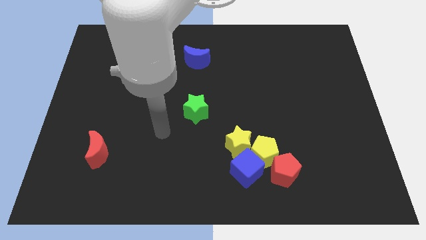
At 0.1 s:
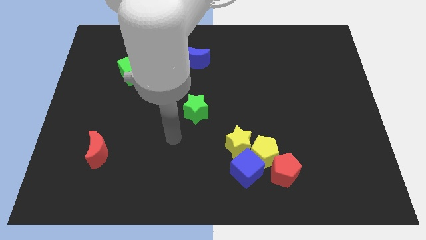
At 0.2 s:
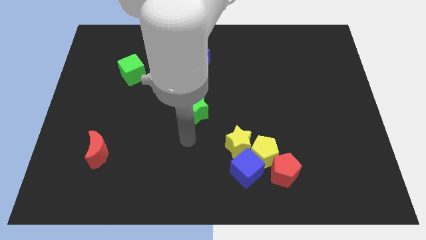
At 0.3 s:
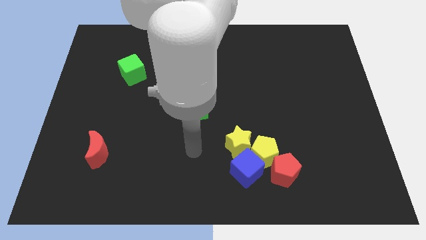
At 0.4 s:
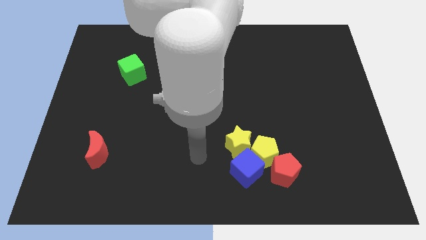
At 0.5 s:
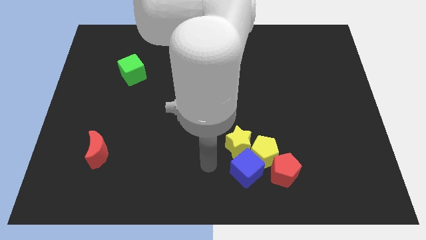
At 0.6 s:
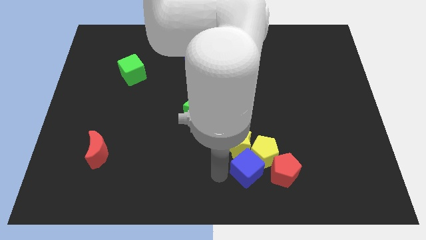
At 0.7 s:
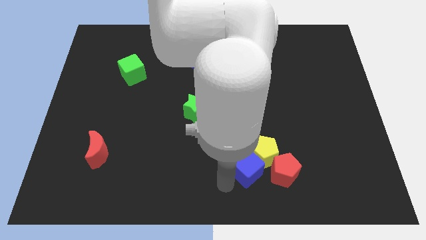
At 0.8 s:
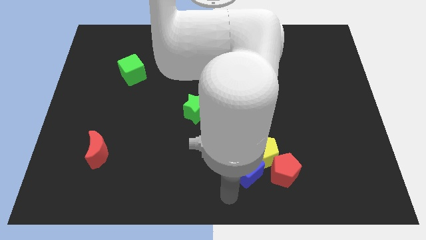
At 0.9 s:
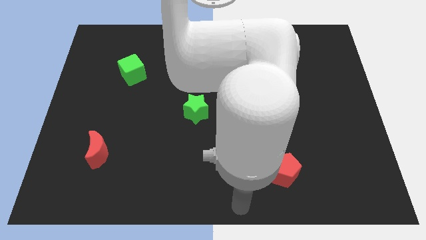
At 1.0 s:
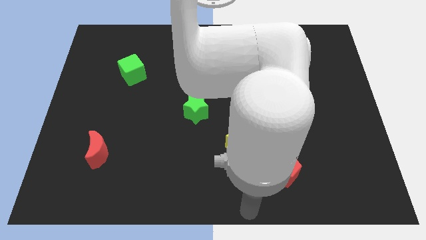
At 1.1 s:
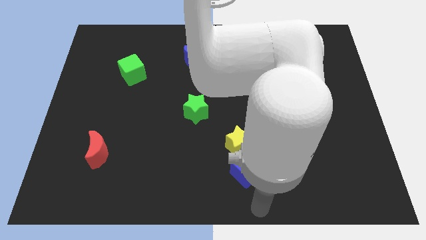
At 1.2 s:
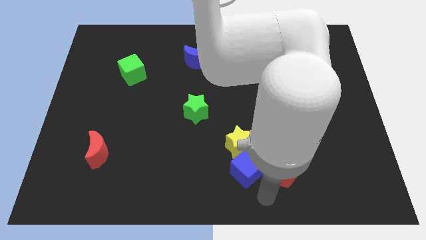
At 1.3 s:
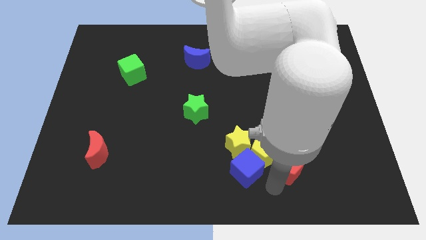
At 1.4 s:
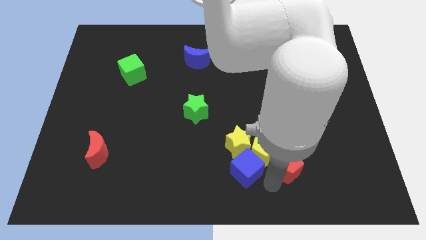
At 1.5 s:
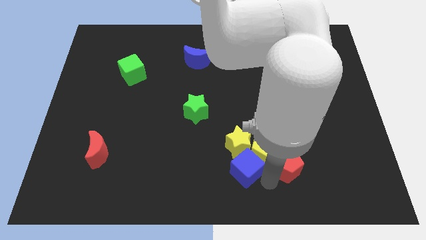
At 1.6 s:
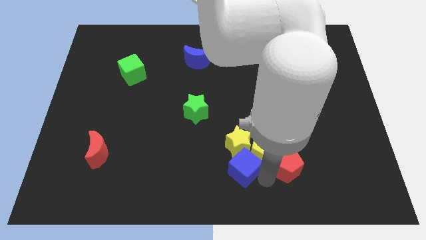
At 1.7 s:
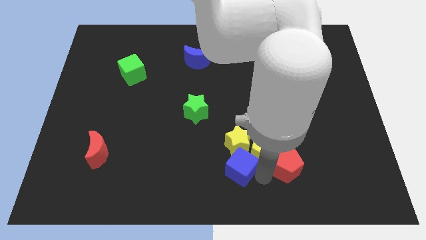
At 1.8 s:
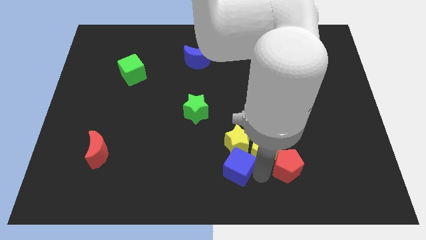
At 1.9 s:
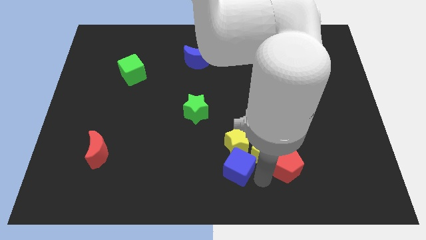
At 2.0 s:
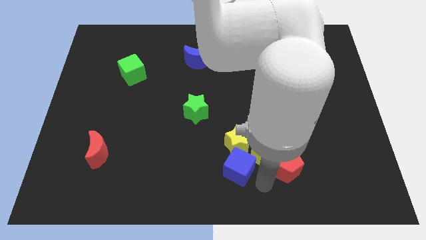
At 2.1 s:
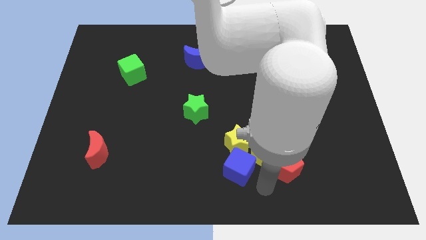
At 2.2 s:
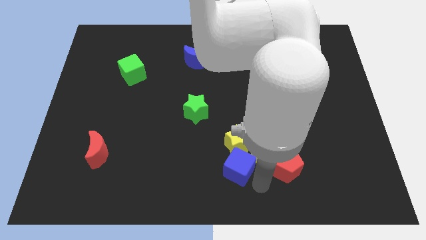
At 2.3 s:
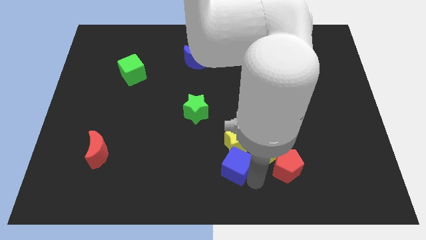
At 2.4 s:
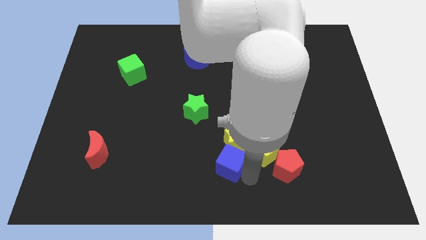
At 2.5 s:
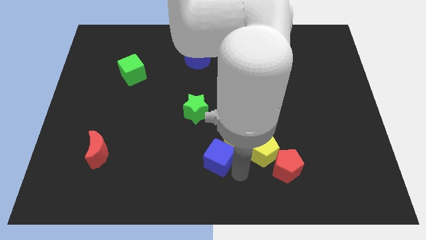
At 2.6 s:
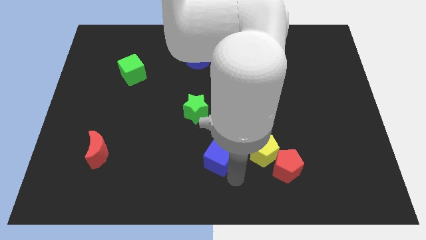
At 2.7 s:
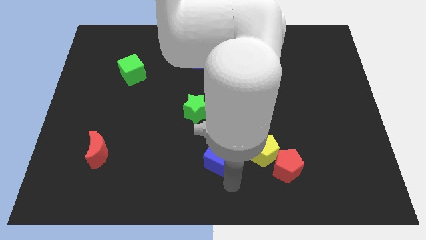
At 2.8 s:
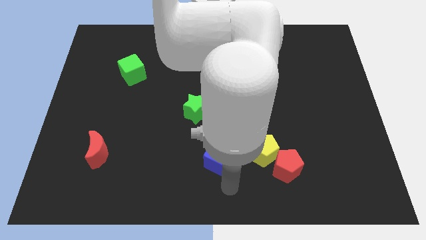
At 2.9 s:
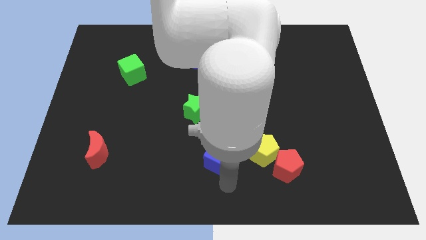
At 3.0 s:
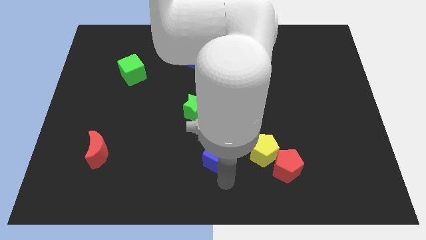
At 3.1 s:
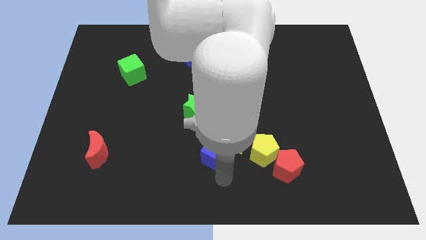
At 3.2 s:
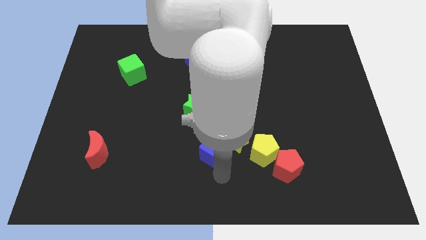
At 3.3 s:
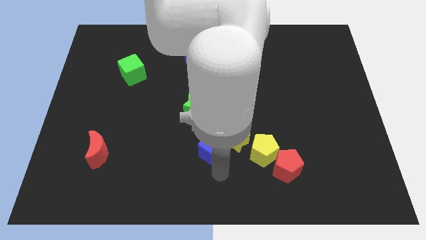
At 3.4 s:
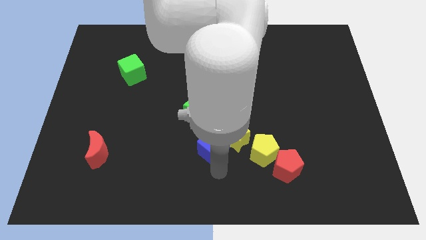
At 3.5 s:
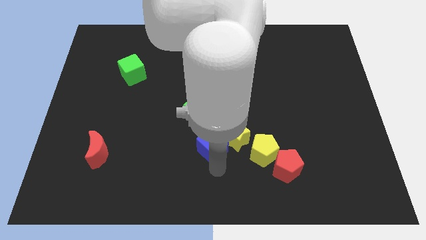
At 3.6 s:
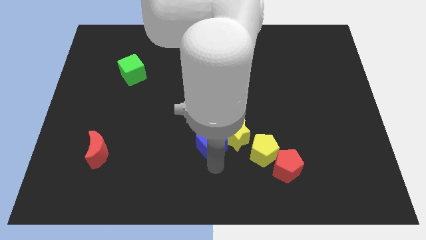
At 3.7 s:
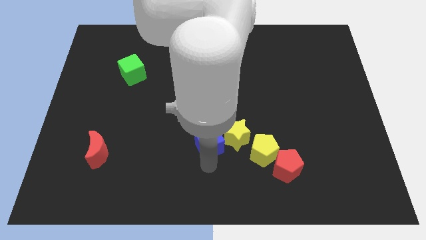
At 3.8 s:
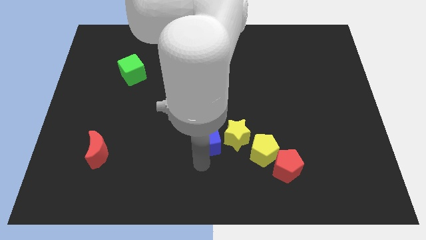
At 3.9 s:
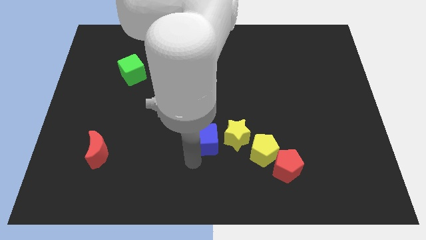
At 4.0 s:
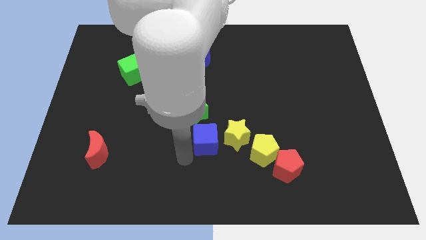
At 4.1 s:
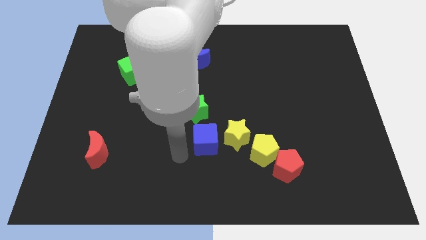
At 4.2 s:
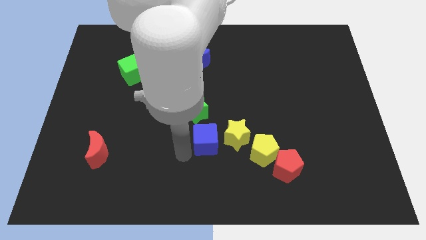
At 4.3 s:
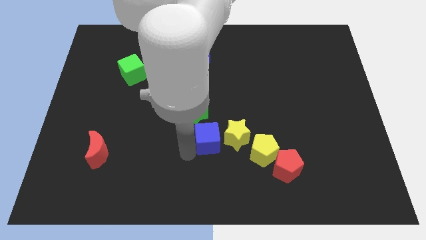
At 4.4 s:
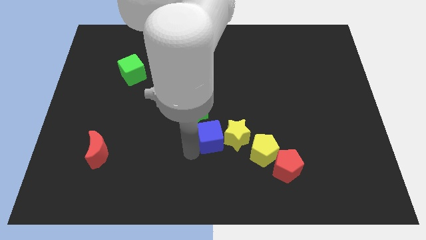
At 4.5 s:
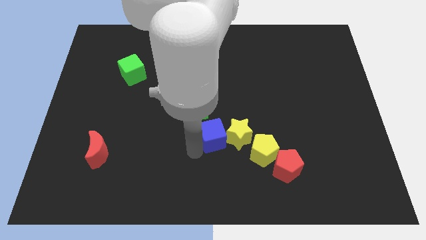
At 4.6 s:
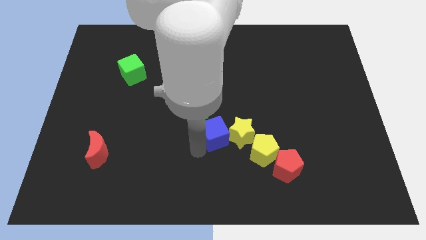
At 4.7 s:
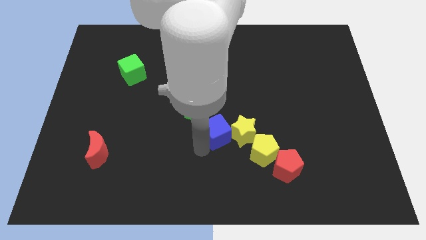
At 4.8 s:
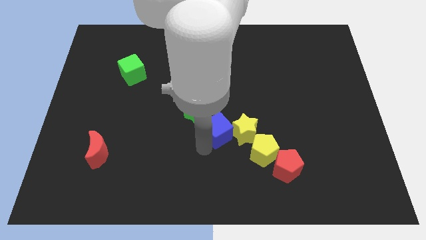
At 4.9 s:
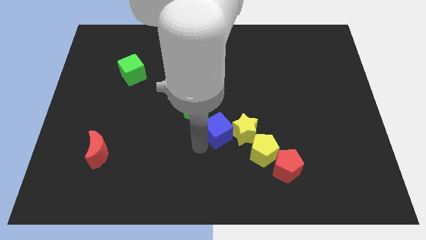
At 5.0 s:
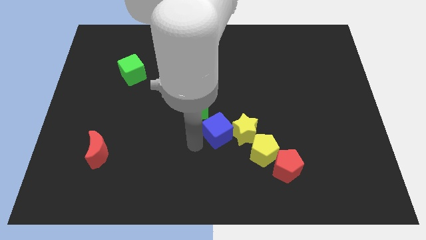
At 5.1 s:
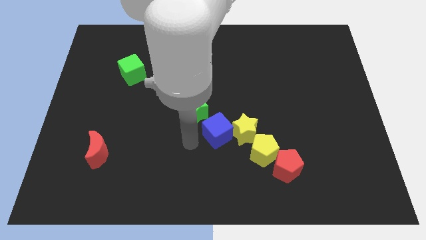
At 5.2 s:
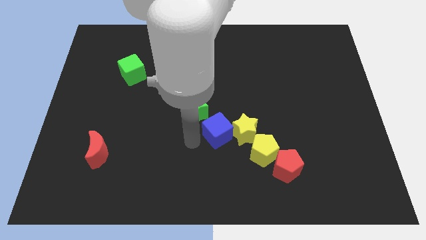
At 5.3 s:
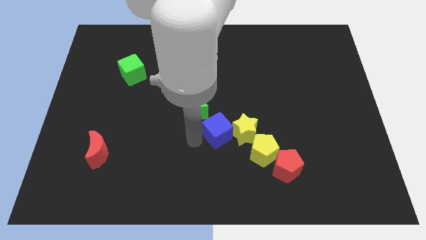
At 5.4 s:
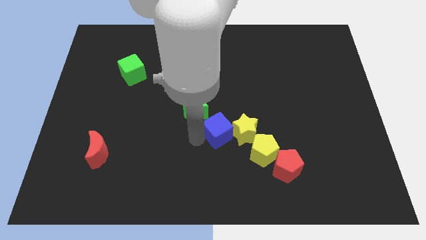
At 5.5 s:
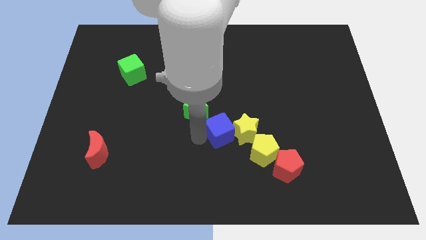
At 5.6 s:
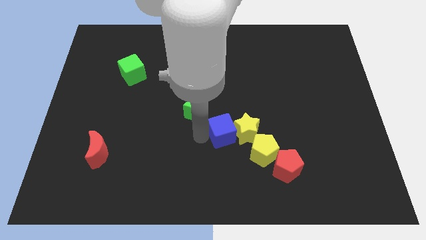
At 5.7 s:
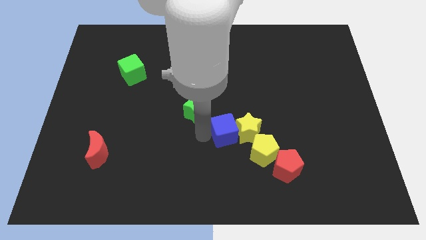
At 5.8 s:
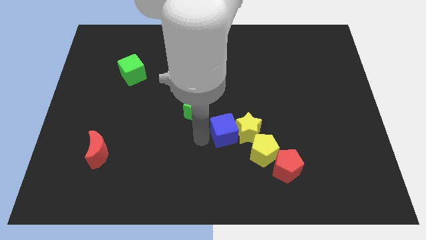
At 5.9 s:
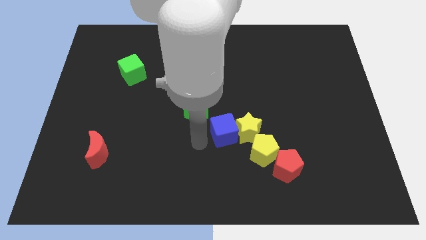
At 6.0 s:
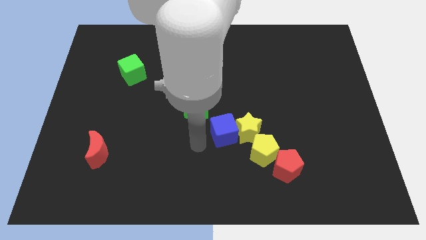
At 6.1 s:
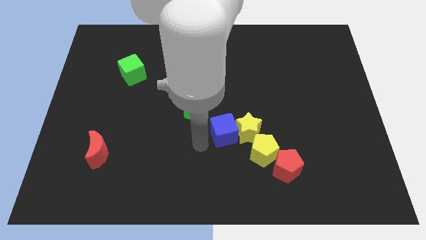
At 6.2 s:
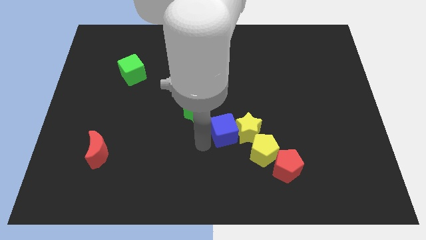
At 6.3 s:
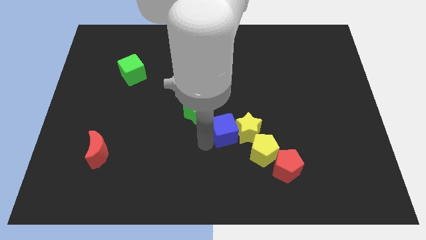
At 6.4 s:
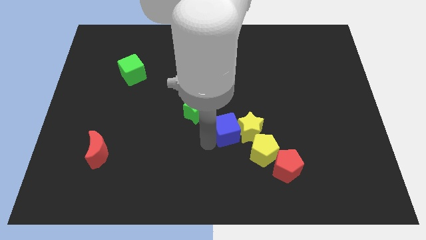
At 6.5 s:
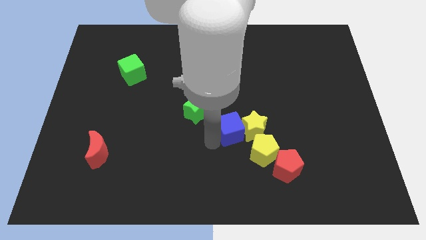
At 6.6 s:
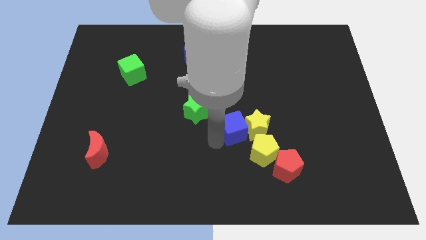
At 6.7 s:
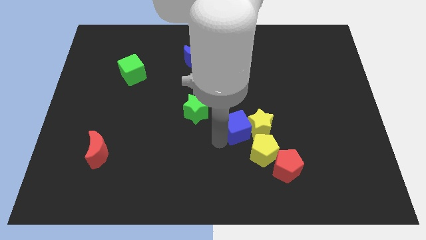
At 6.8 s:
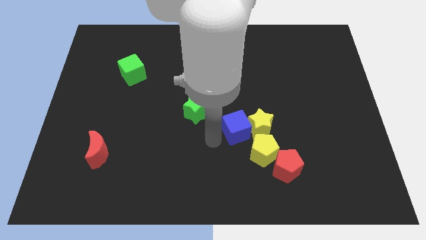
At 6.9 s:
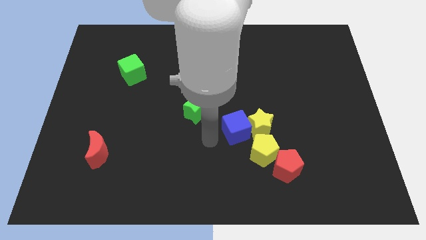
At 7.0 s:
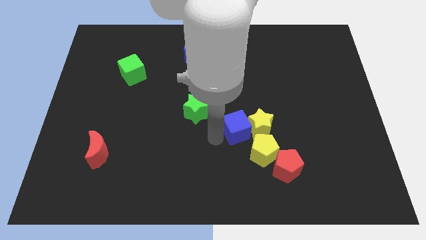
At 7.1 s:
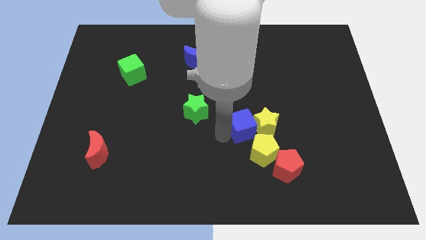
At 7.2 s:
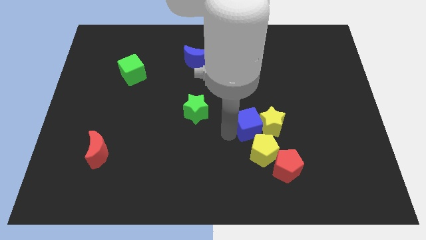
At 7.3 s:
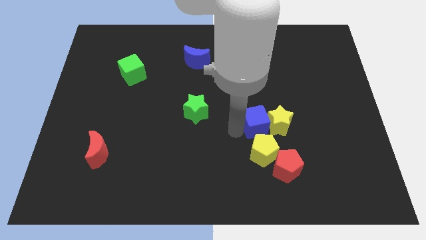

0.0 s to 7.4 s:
move the blue cube up and right diagonally slightly

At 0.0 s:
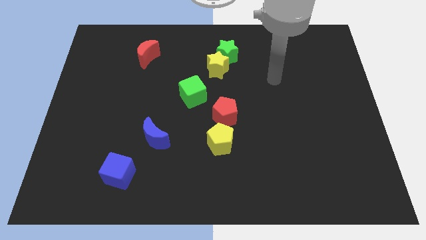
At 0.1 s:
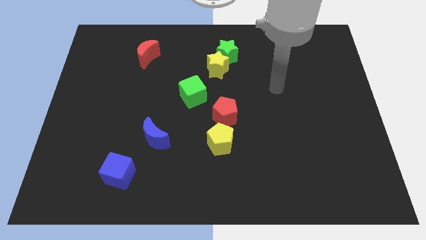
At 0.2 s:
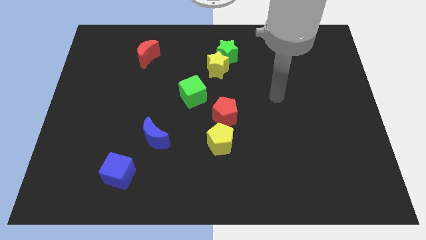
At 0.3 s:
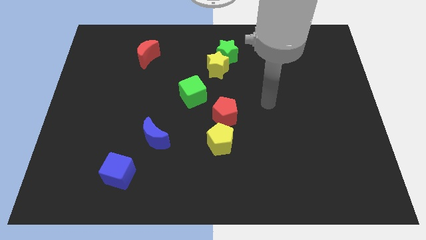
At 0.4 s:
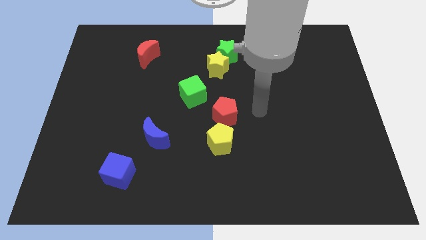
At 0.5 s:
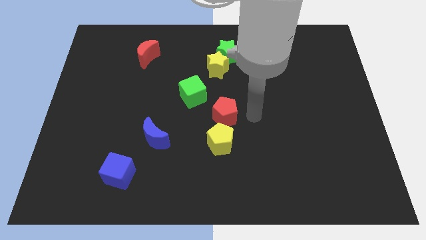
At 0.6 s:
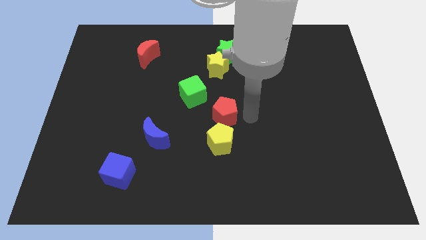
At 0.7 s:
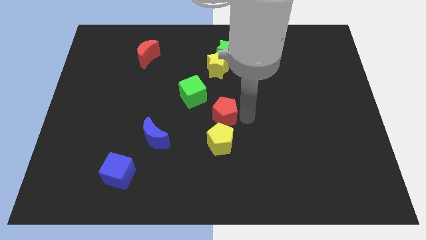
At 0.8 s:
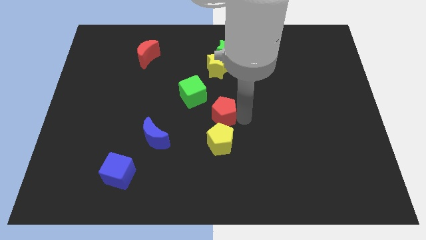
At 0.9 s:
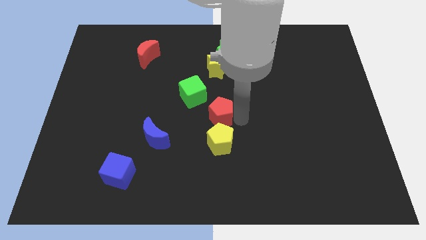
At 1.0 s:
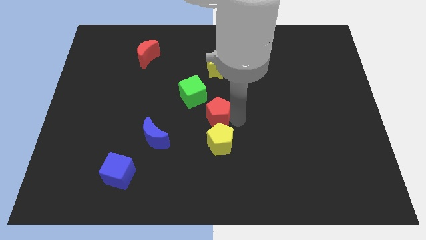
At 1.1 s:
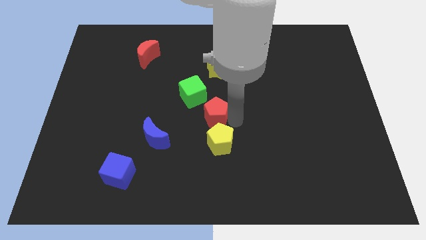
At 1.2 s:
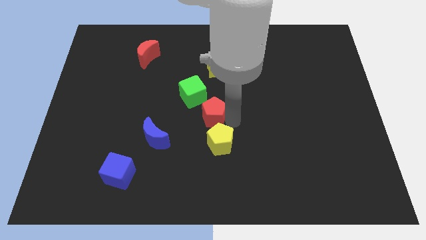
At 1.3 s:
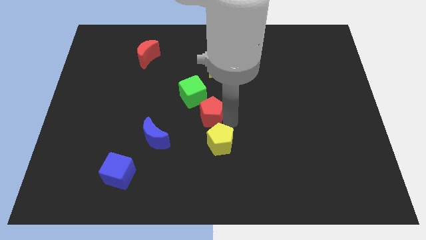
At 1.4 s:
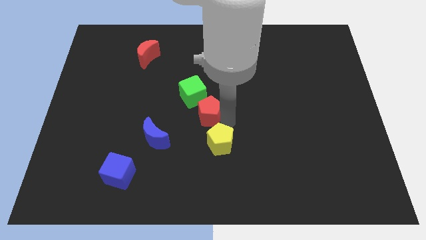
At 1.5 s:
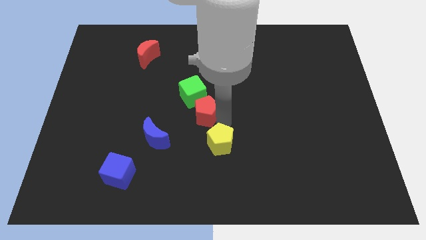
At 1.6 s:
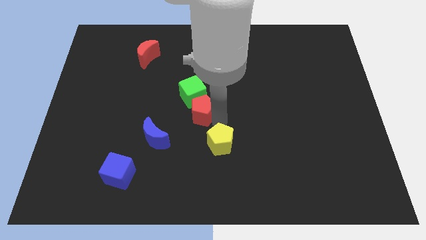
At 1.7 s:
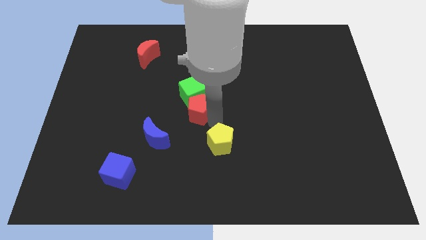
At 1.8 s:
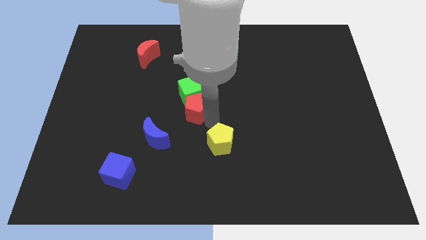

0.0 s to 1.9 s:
move the red pentagon to the left a bit
